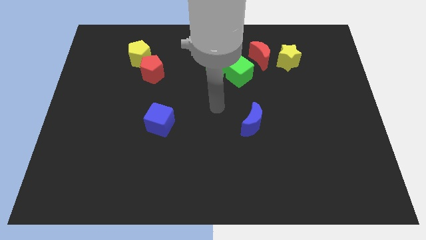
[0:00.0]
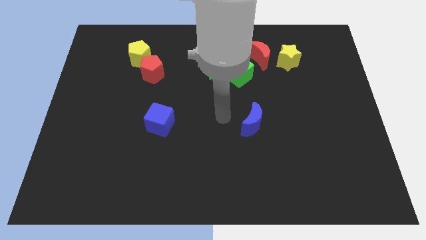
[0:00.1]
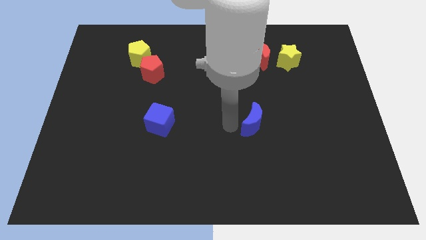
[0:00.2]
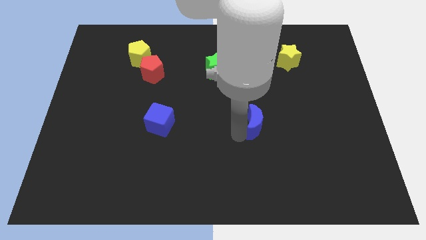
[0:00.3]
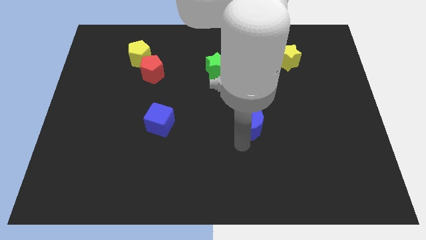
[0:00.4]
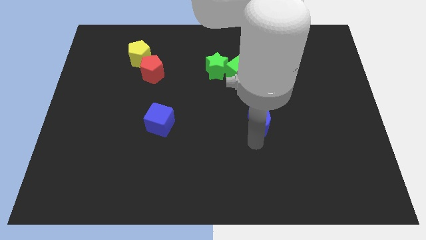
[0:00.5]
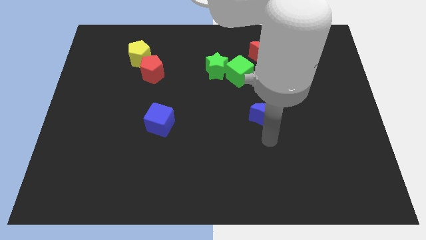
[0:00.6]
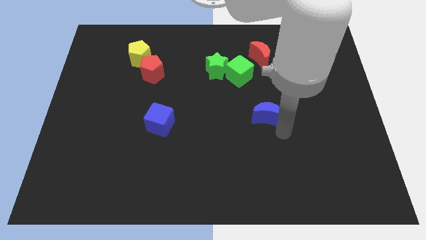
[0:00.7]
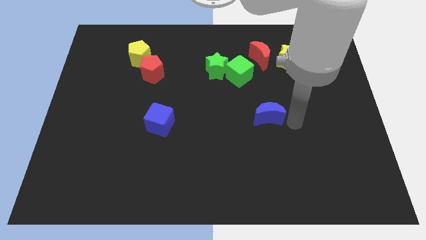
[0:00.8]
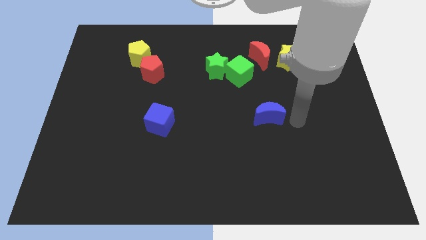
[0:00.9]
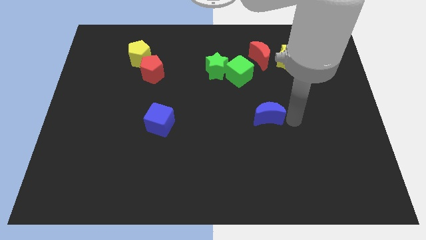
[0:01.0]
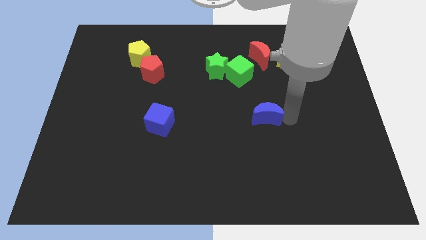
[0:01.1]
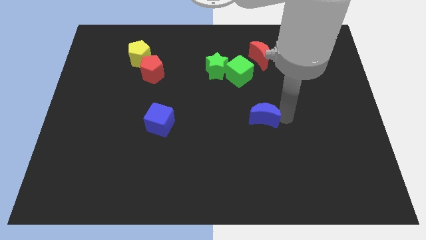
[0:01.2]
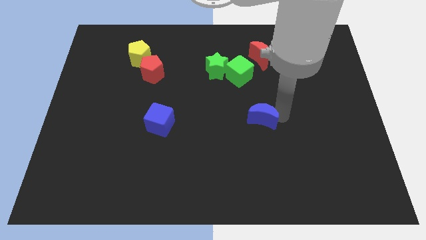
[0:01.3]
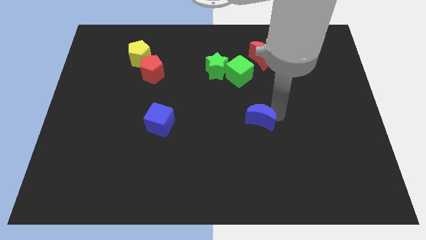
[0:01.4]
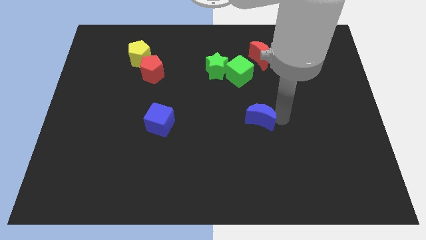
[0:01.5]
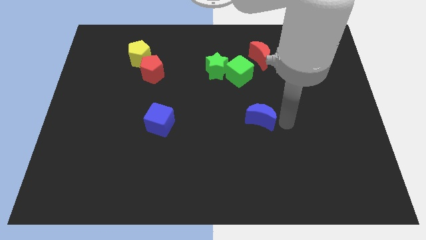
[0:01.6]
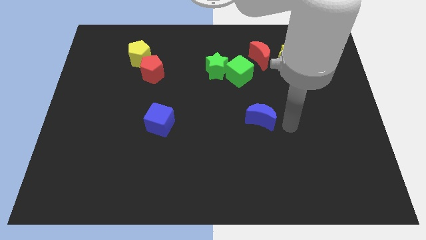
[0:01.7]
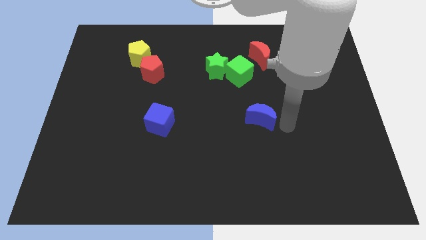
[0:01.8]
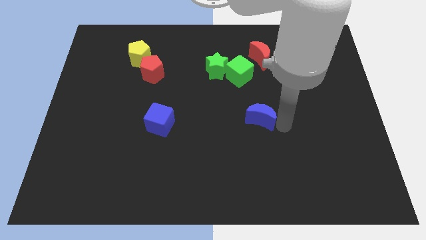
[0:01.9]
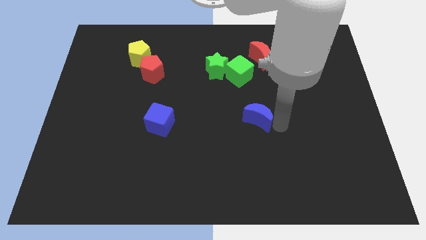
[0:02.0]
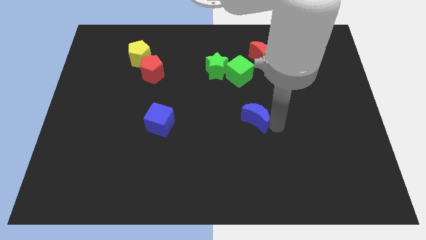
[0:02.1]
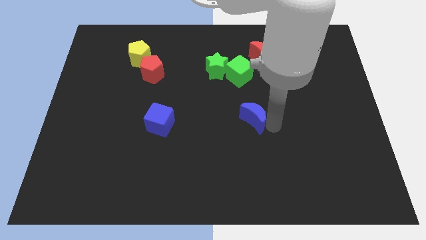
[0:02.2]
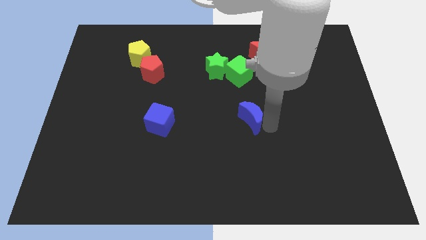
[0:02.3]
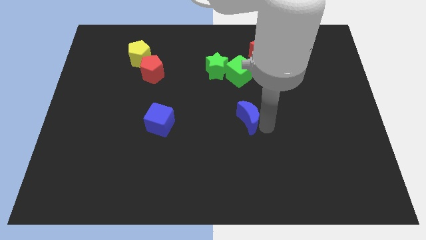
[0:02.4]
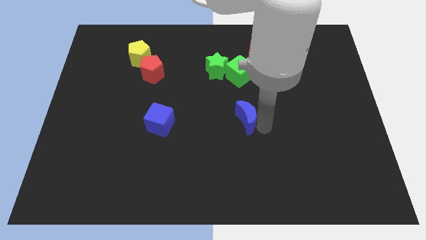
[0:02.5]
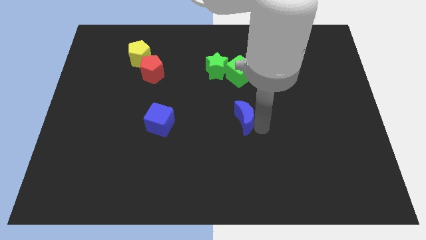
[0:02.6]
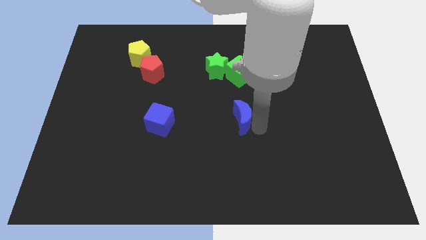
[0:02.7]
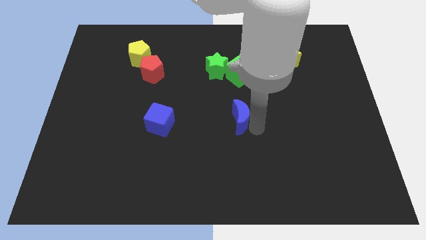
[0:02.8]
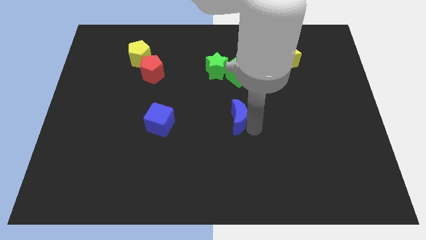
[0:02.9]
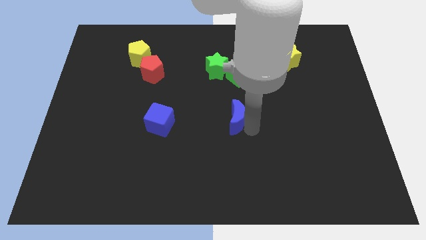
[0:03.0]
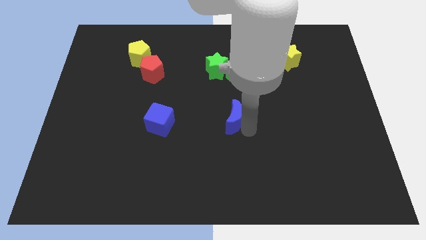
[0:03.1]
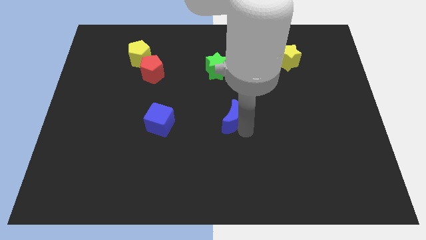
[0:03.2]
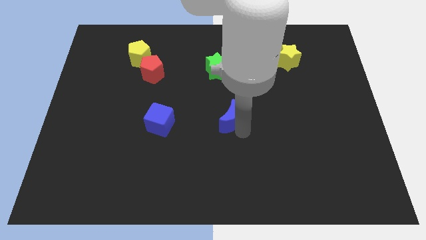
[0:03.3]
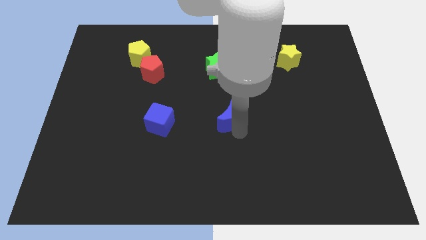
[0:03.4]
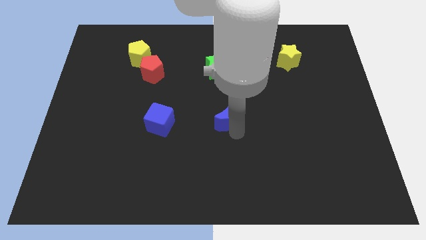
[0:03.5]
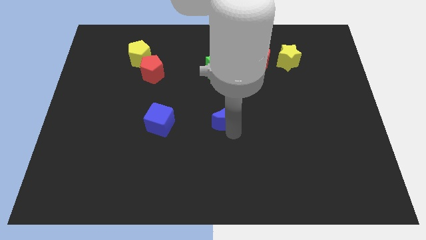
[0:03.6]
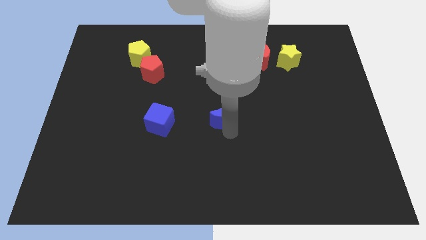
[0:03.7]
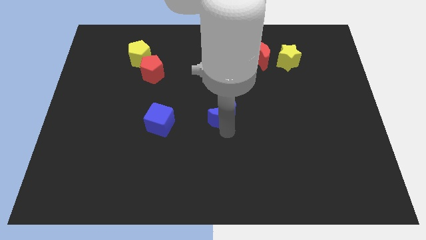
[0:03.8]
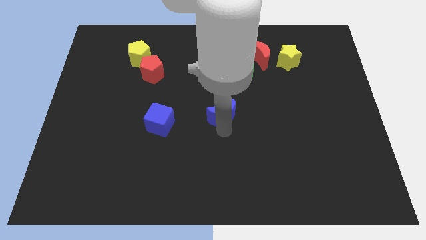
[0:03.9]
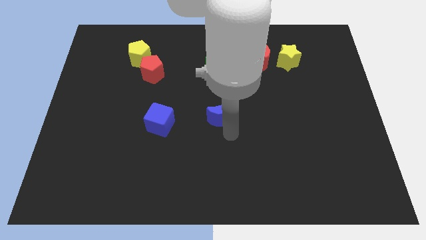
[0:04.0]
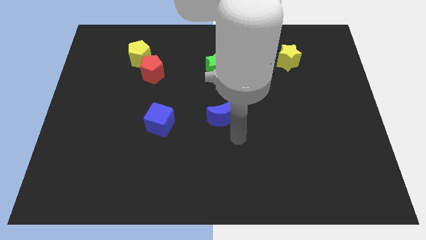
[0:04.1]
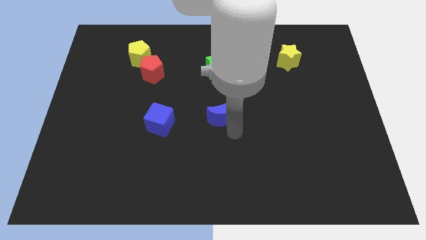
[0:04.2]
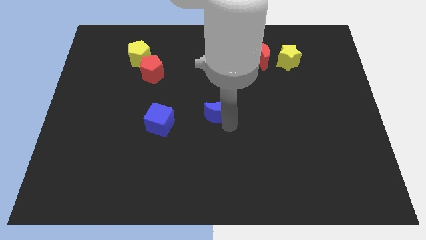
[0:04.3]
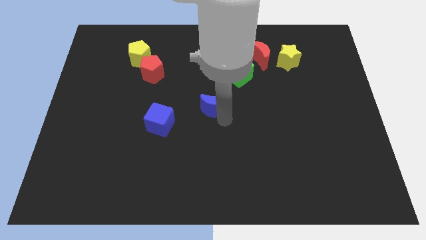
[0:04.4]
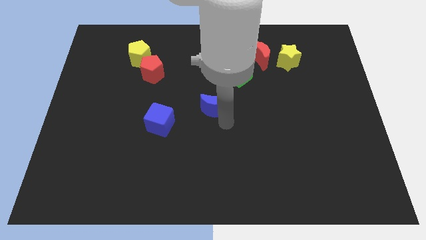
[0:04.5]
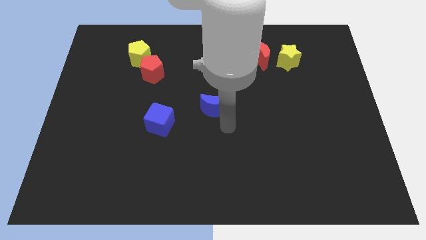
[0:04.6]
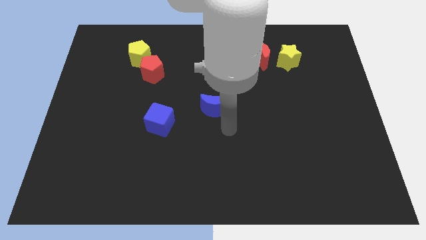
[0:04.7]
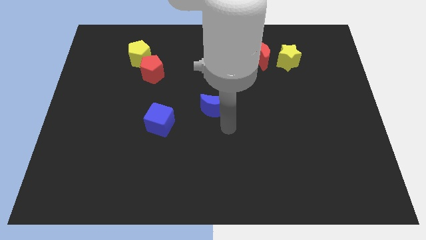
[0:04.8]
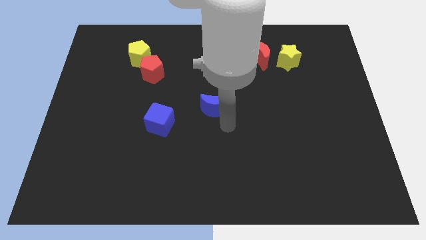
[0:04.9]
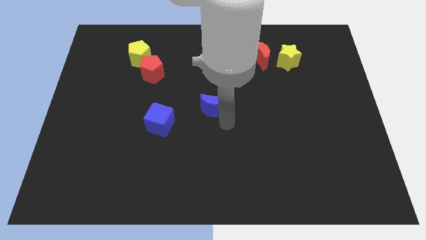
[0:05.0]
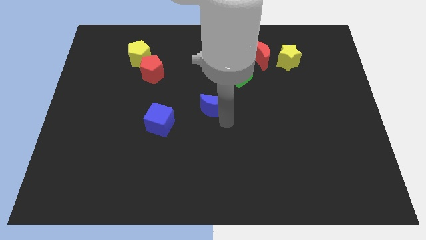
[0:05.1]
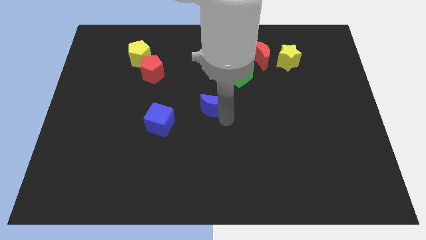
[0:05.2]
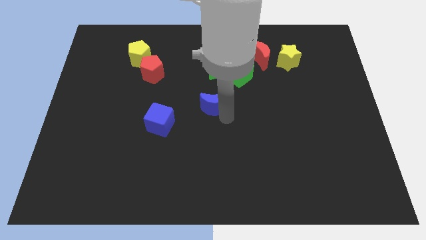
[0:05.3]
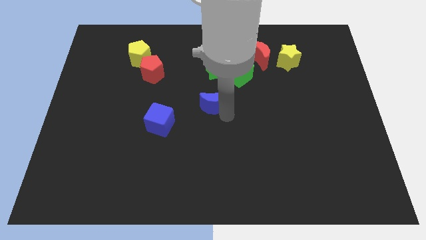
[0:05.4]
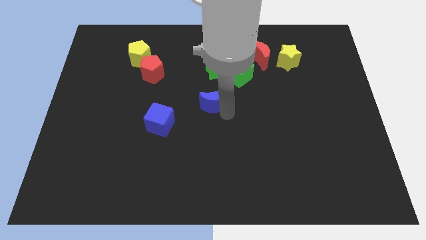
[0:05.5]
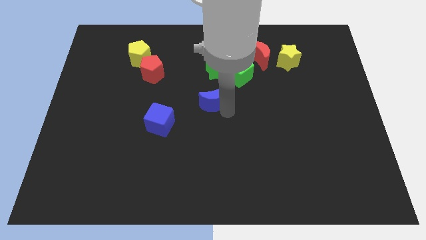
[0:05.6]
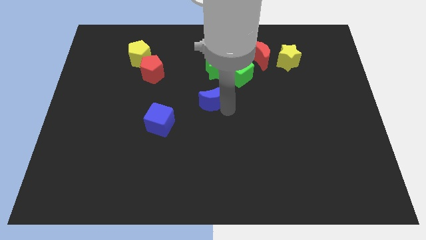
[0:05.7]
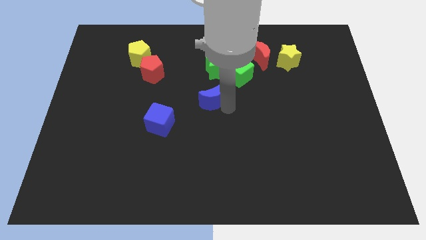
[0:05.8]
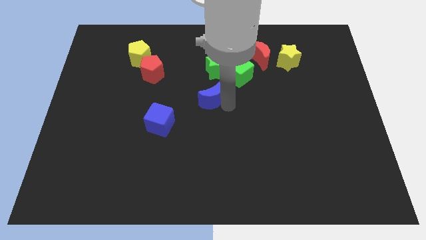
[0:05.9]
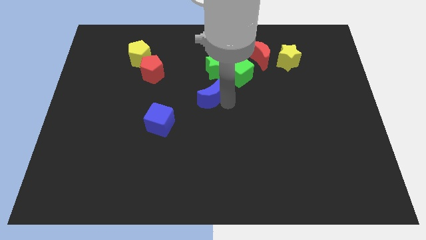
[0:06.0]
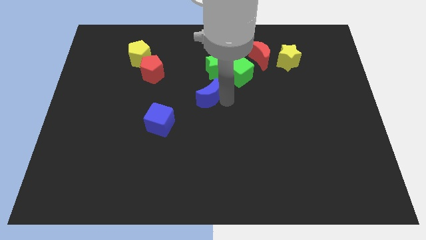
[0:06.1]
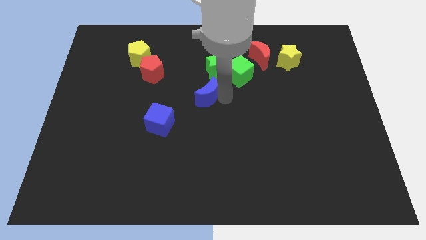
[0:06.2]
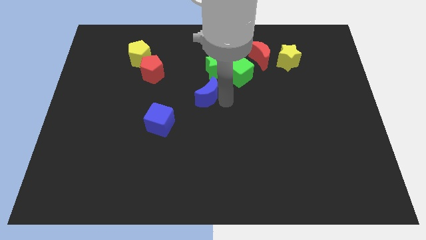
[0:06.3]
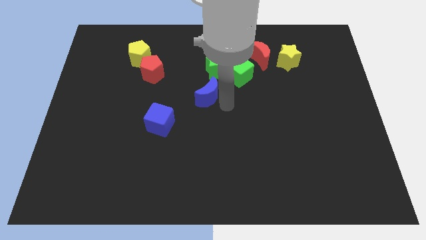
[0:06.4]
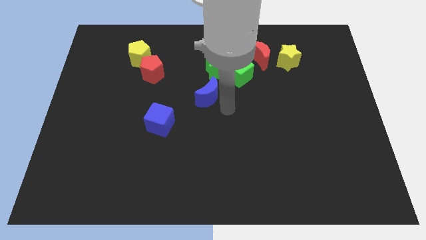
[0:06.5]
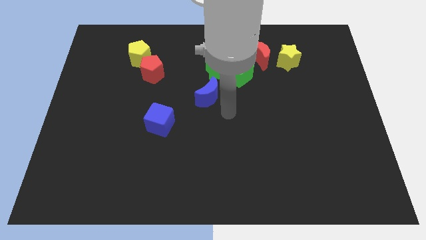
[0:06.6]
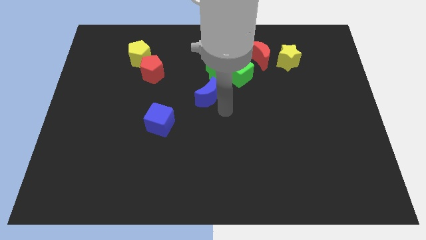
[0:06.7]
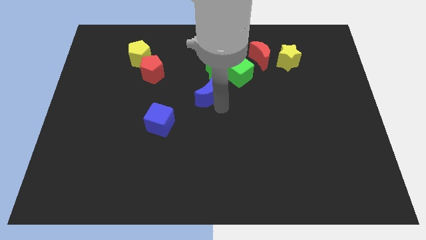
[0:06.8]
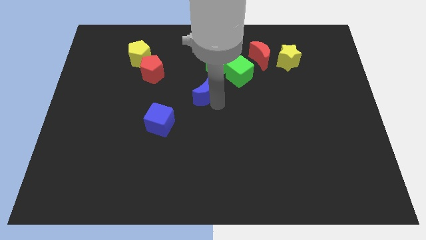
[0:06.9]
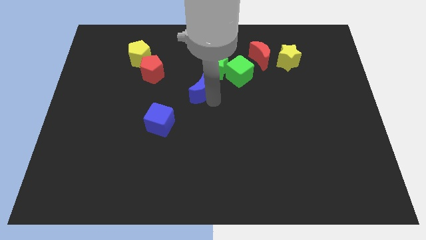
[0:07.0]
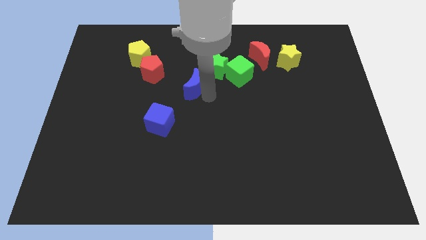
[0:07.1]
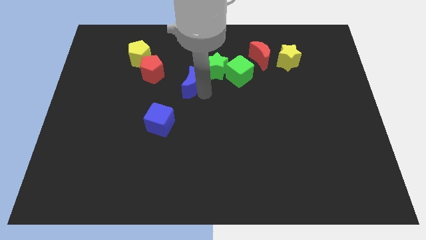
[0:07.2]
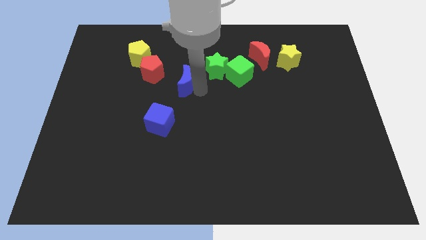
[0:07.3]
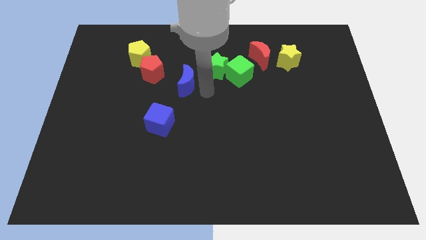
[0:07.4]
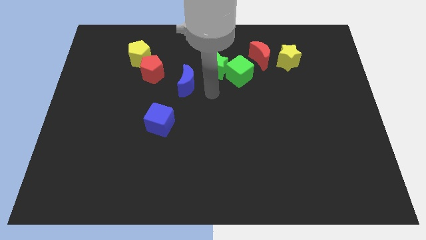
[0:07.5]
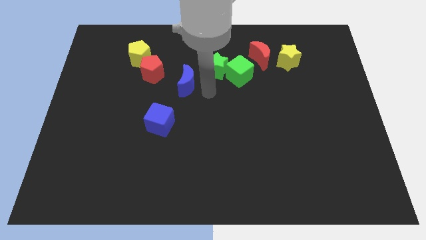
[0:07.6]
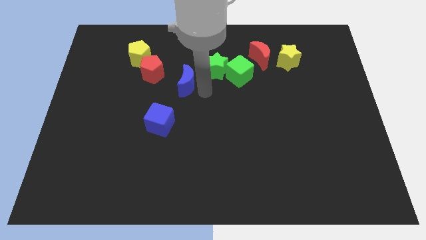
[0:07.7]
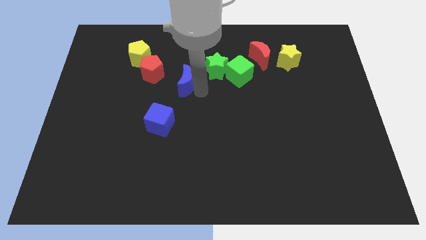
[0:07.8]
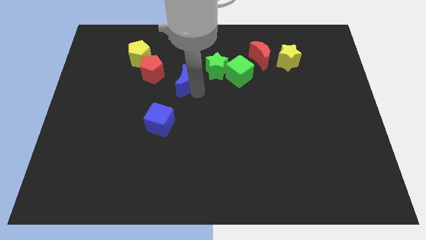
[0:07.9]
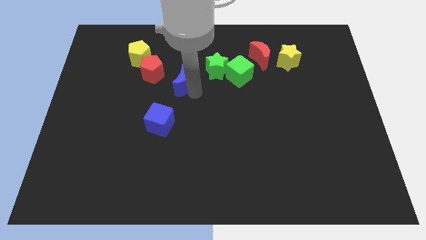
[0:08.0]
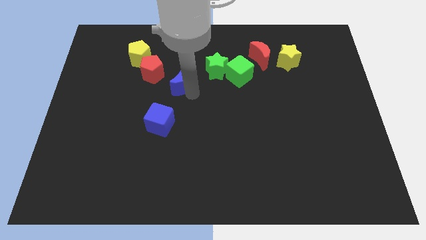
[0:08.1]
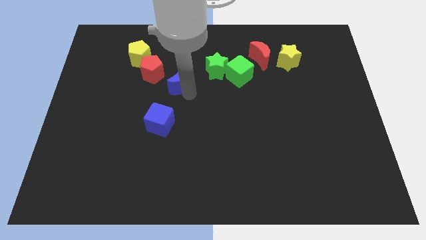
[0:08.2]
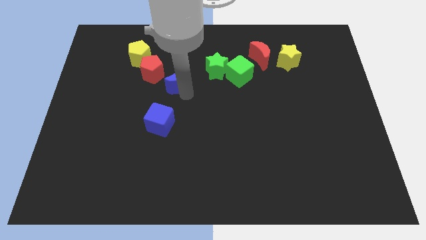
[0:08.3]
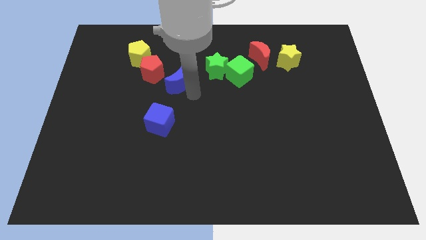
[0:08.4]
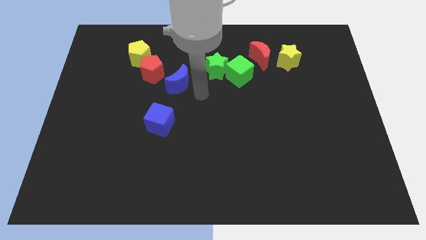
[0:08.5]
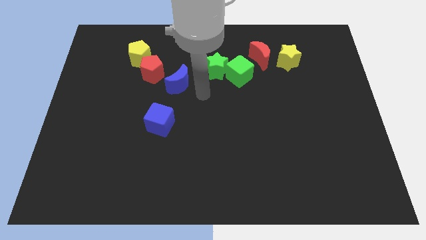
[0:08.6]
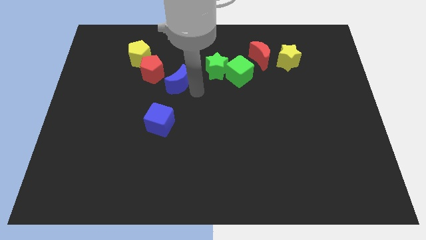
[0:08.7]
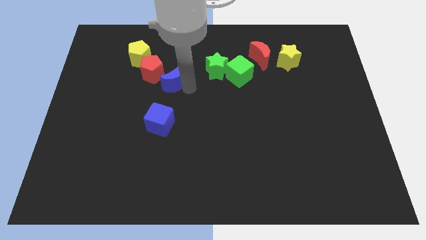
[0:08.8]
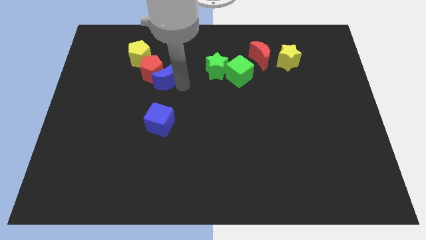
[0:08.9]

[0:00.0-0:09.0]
put the blue moon to the red pentagon
